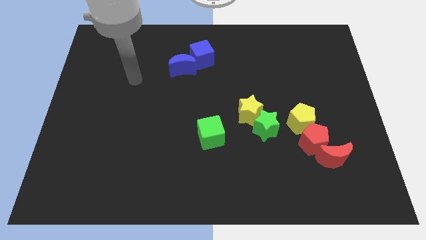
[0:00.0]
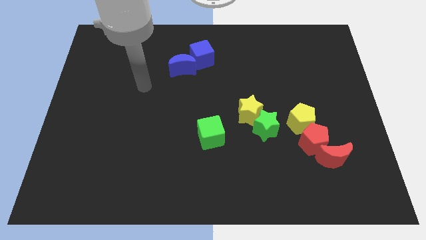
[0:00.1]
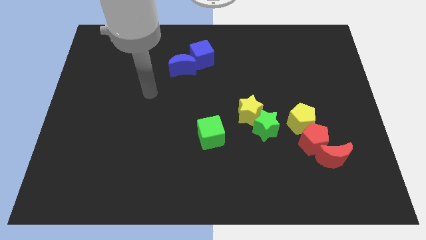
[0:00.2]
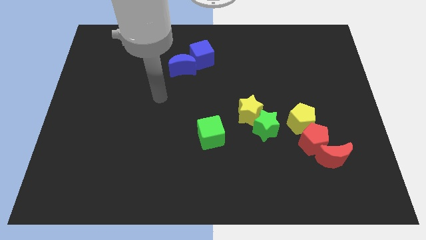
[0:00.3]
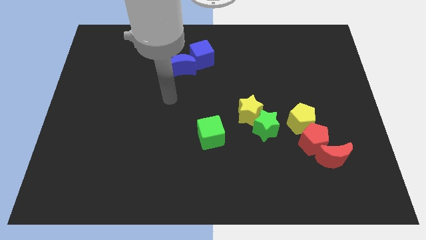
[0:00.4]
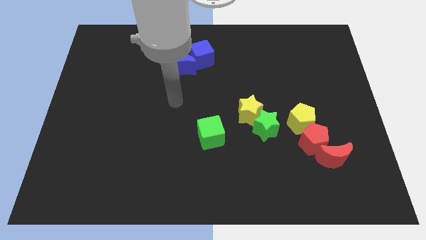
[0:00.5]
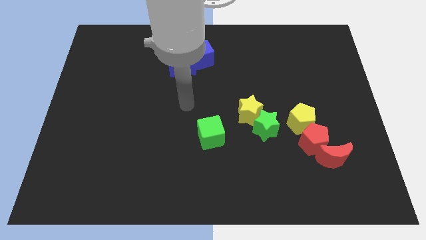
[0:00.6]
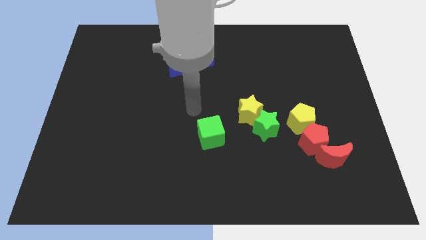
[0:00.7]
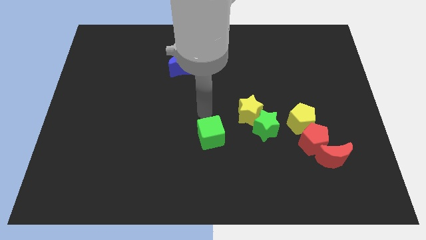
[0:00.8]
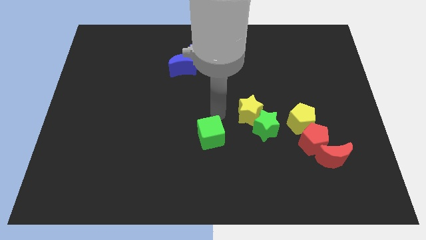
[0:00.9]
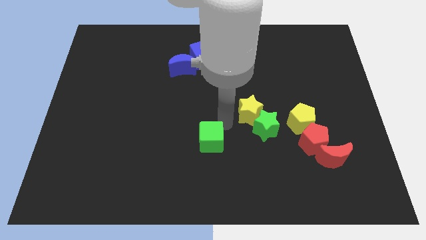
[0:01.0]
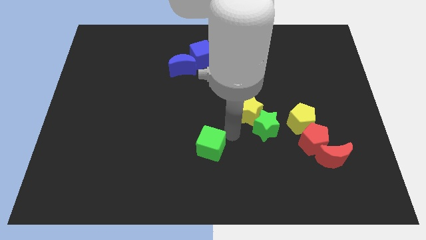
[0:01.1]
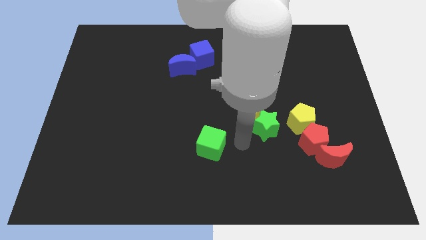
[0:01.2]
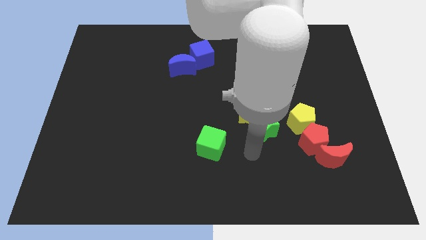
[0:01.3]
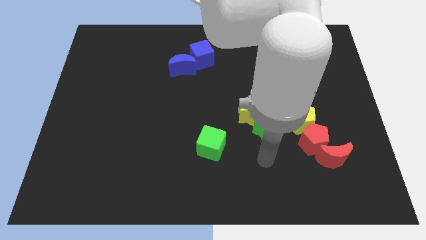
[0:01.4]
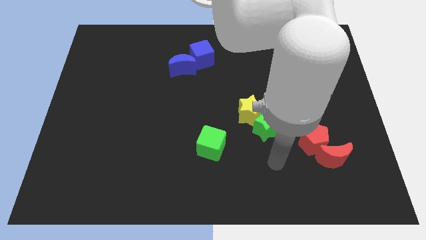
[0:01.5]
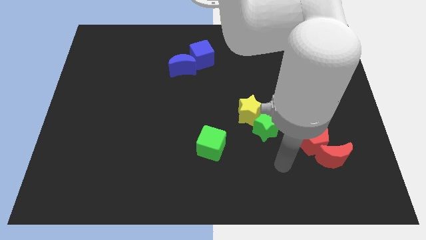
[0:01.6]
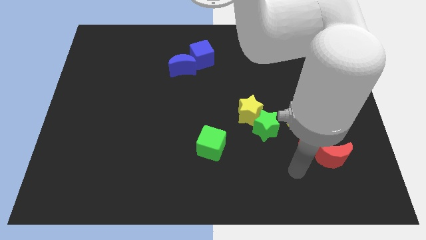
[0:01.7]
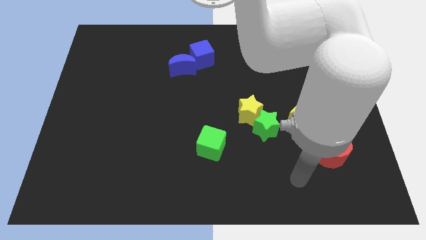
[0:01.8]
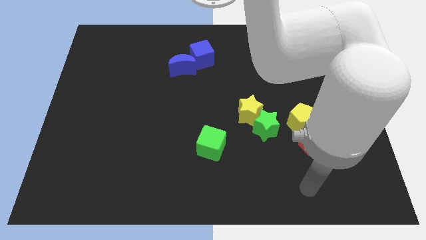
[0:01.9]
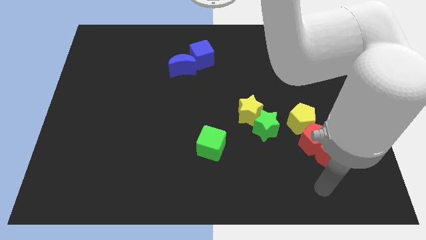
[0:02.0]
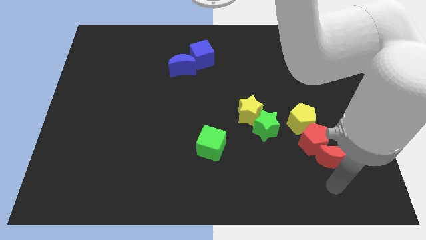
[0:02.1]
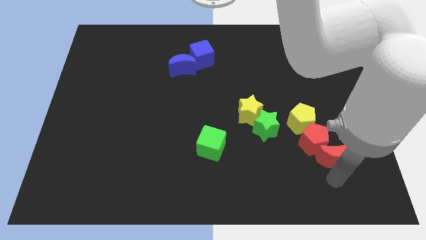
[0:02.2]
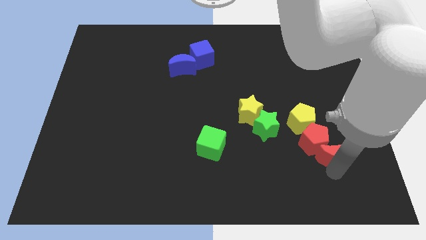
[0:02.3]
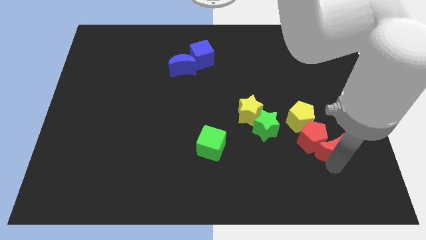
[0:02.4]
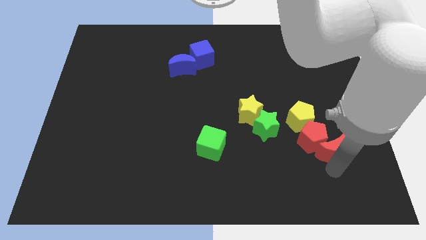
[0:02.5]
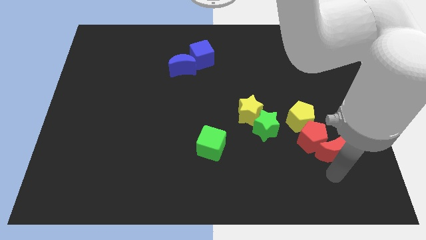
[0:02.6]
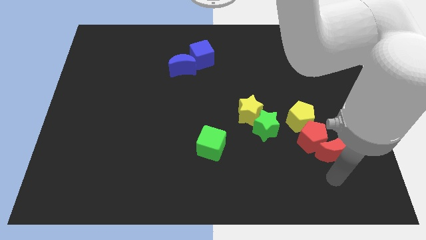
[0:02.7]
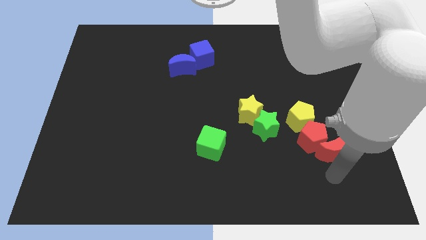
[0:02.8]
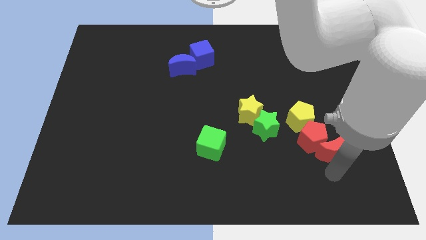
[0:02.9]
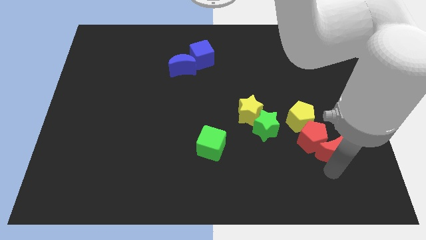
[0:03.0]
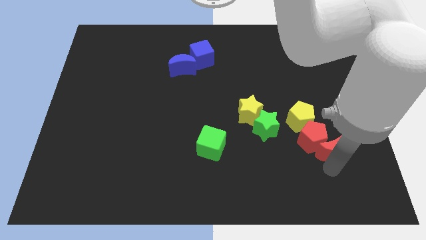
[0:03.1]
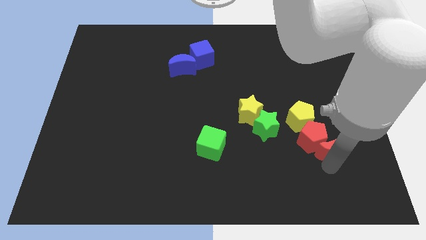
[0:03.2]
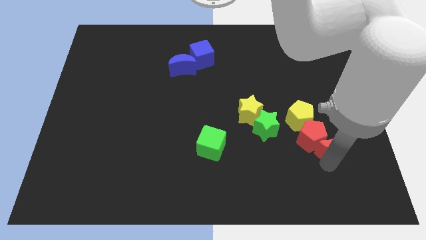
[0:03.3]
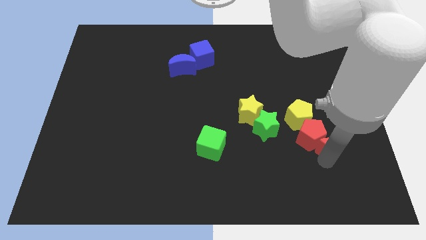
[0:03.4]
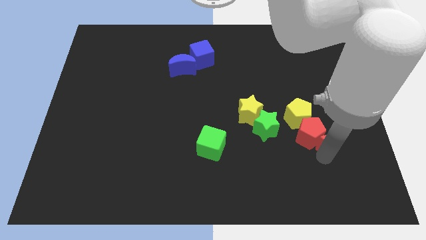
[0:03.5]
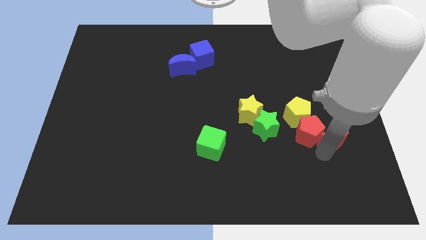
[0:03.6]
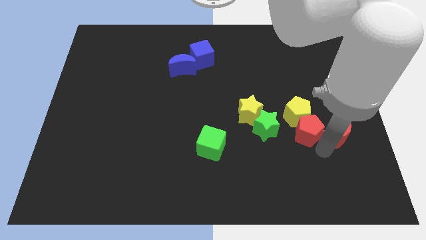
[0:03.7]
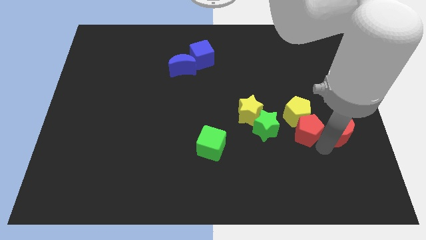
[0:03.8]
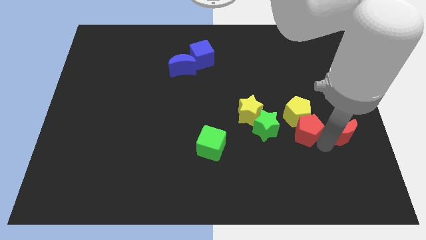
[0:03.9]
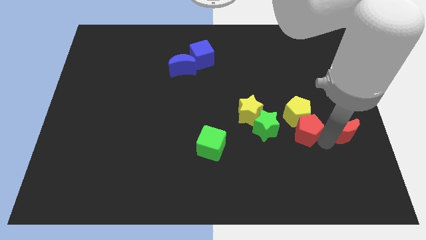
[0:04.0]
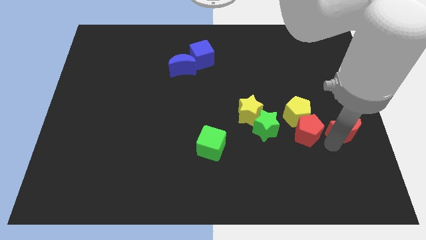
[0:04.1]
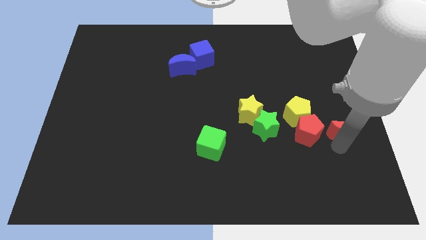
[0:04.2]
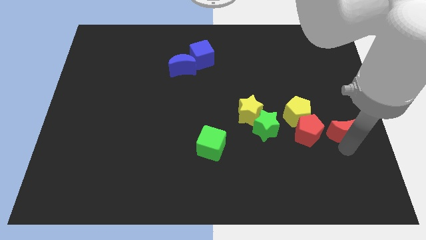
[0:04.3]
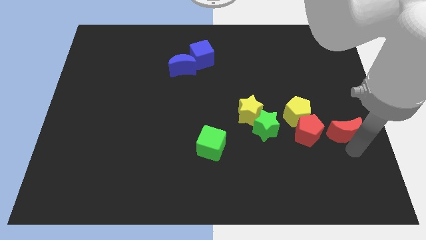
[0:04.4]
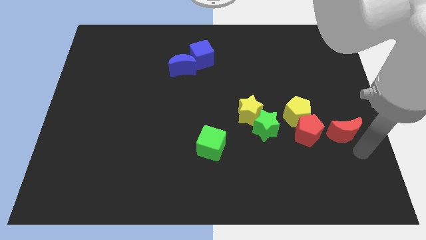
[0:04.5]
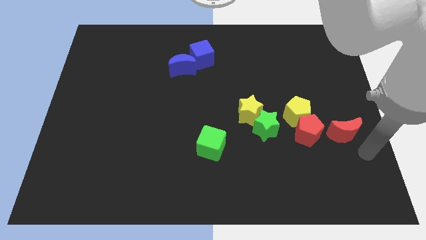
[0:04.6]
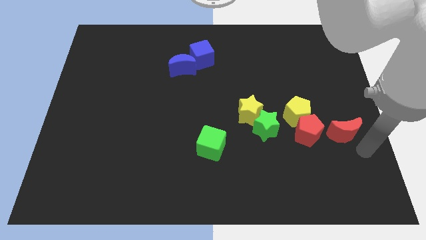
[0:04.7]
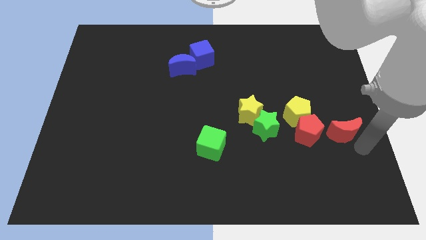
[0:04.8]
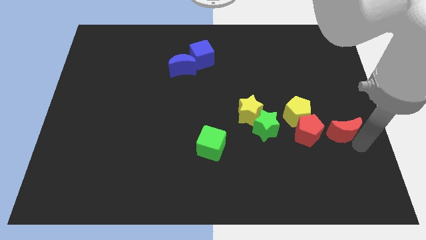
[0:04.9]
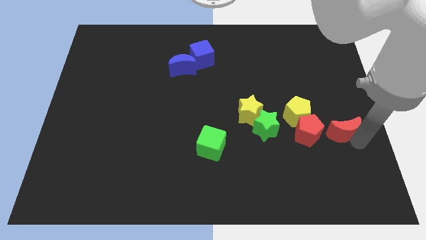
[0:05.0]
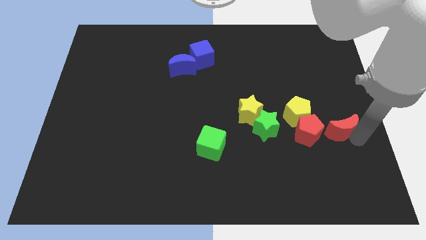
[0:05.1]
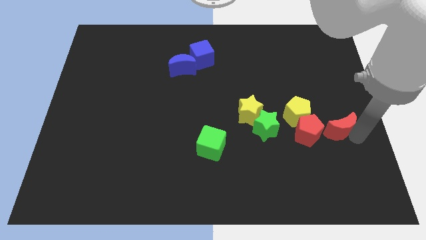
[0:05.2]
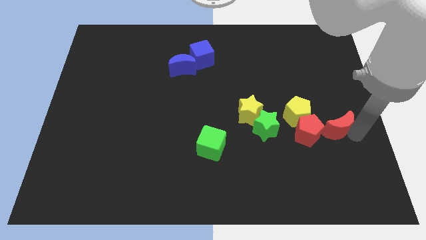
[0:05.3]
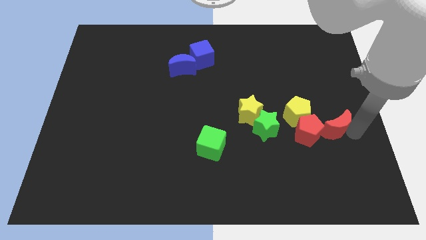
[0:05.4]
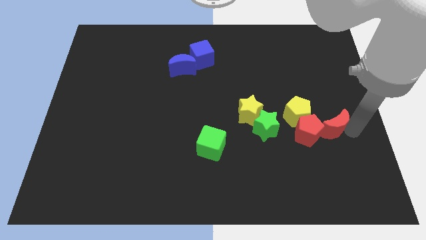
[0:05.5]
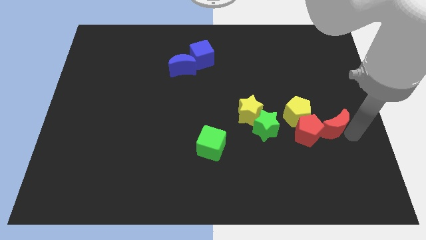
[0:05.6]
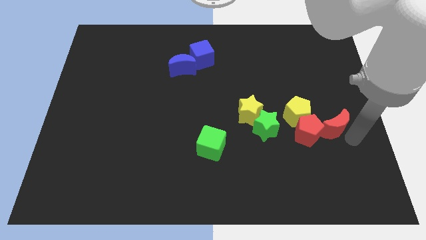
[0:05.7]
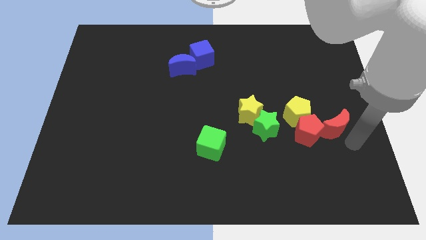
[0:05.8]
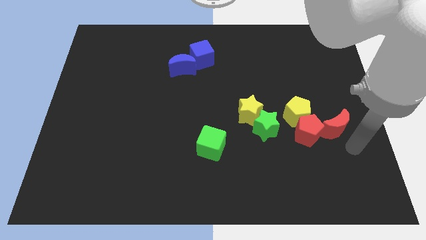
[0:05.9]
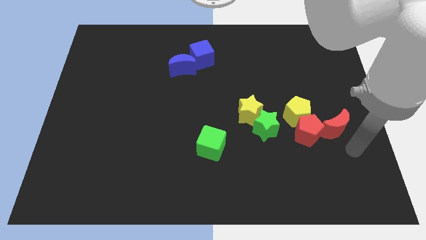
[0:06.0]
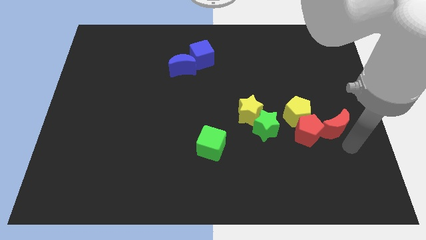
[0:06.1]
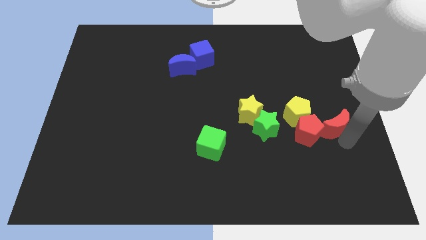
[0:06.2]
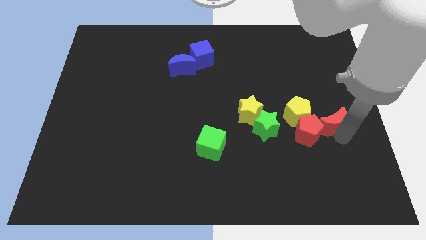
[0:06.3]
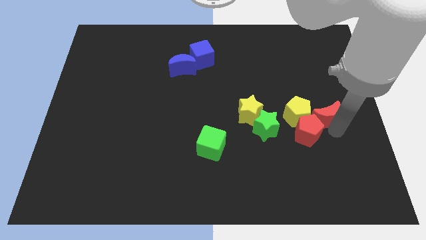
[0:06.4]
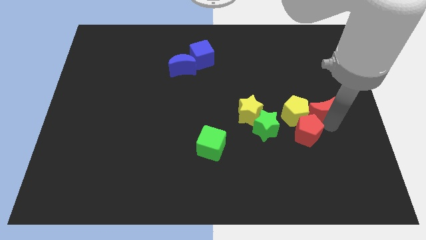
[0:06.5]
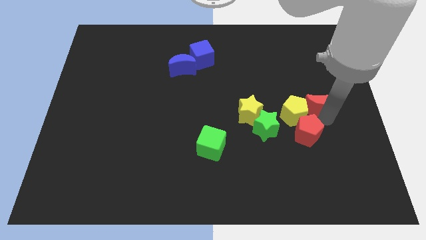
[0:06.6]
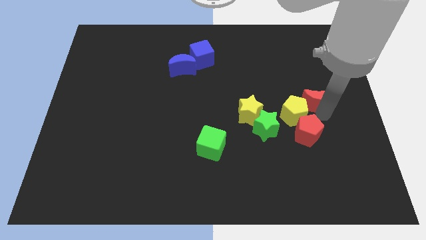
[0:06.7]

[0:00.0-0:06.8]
slightly slide the red moon upwards and to the left diagonally

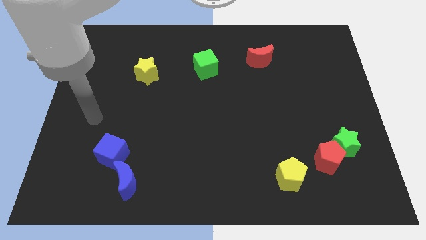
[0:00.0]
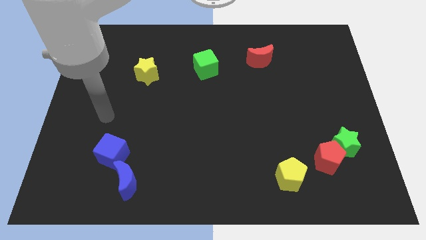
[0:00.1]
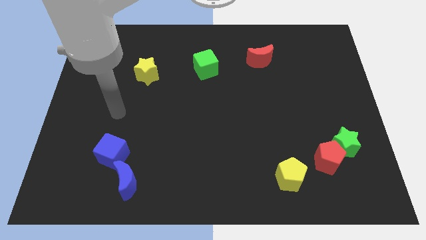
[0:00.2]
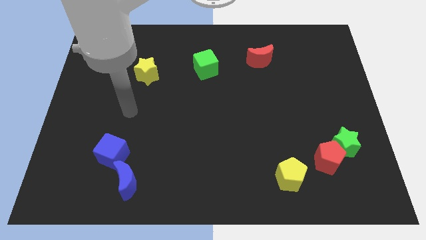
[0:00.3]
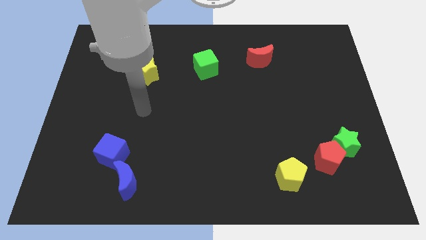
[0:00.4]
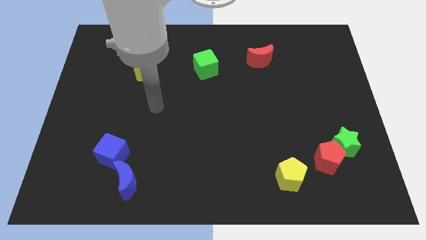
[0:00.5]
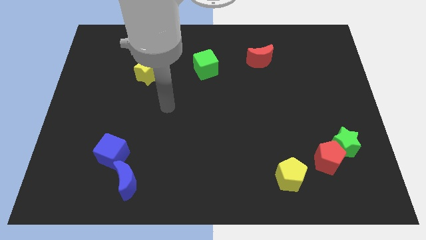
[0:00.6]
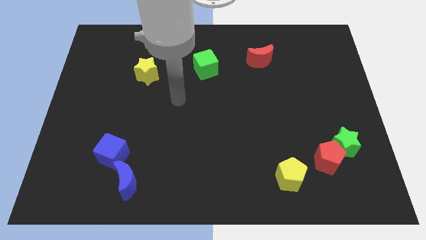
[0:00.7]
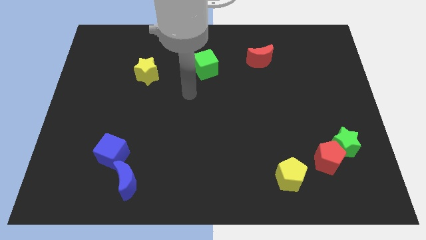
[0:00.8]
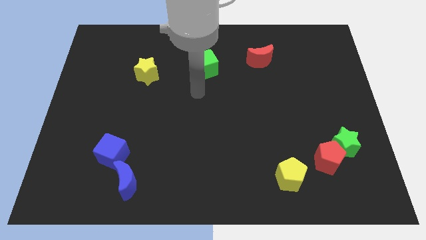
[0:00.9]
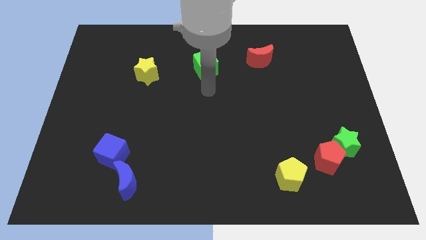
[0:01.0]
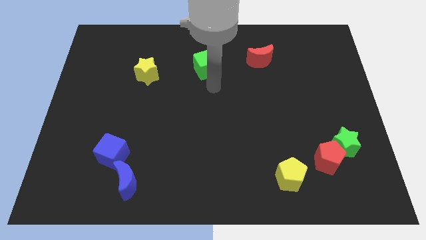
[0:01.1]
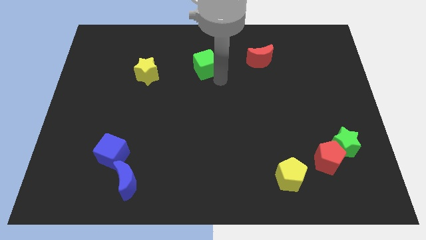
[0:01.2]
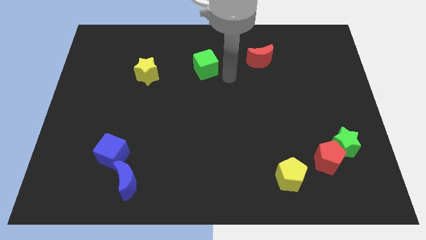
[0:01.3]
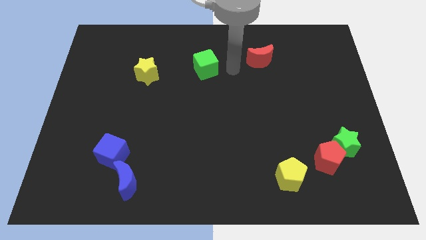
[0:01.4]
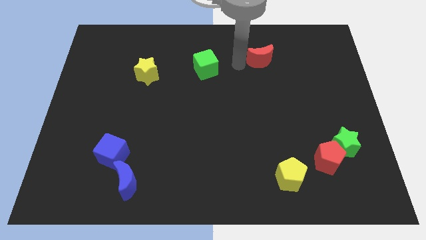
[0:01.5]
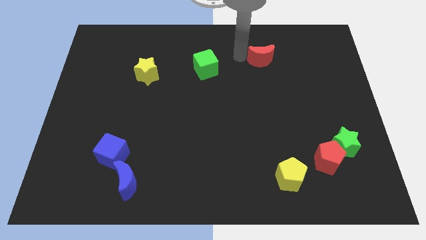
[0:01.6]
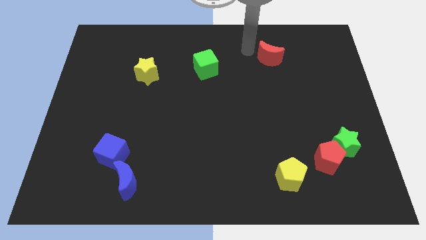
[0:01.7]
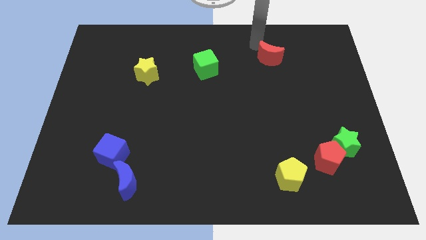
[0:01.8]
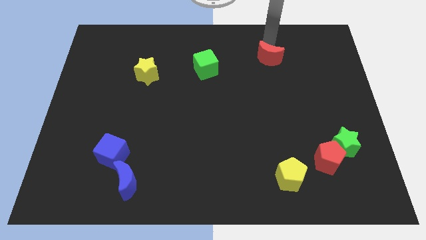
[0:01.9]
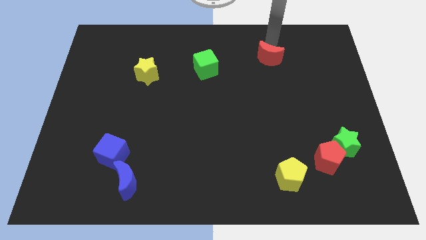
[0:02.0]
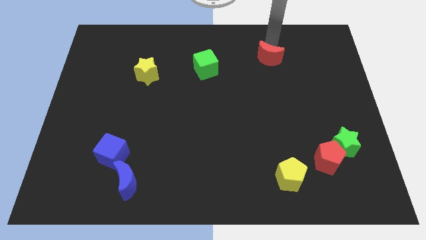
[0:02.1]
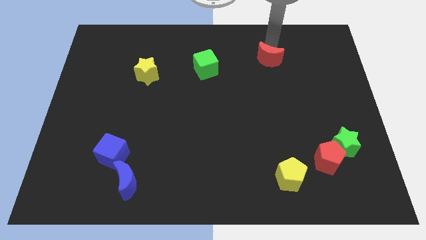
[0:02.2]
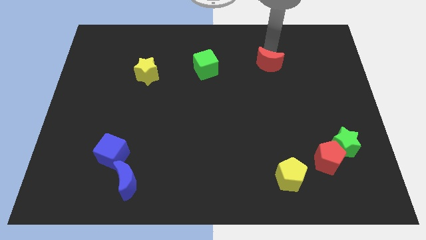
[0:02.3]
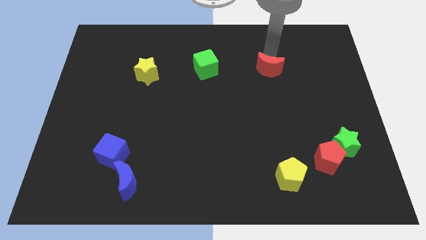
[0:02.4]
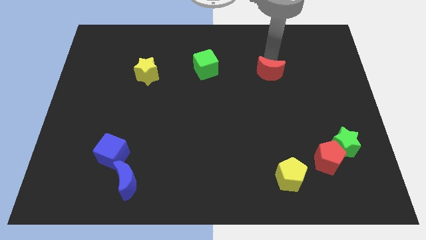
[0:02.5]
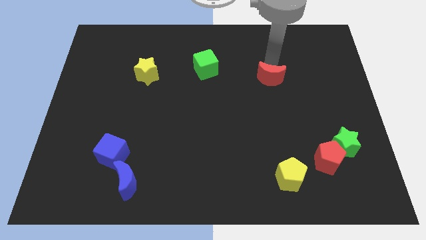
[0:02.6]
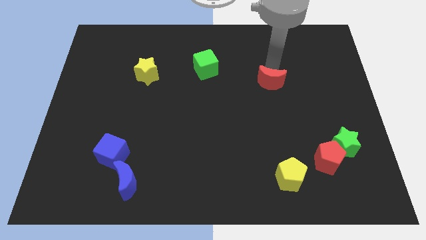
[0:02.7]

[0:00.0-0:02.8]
slightly move the red moon down
